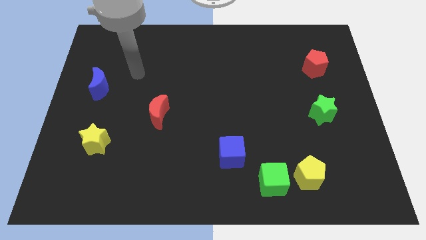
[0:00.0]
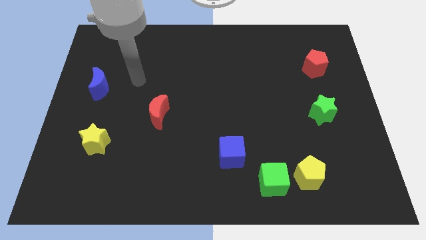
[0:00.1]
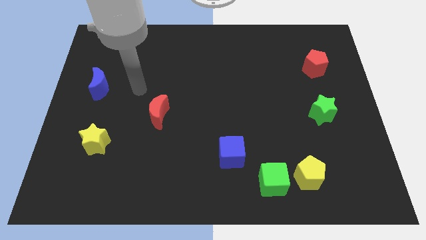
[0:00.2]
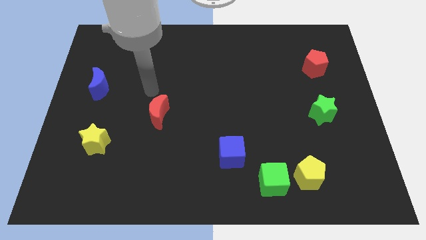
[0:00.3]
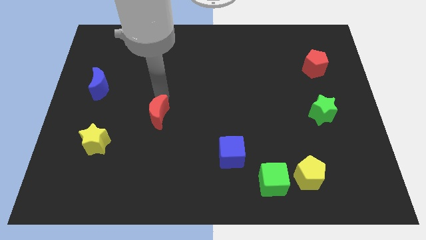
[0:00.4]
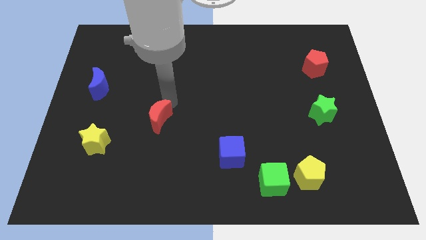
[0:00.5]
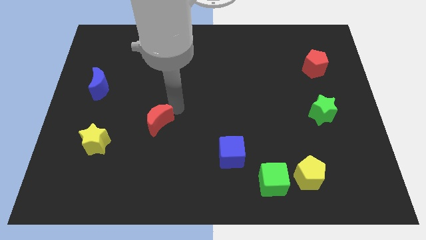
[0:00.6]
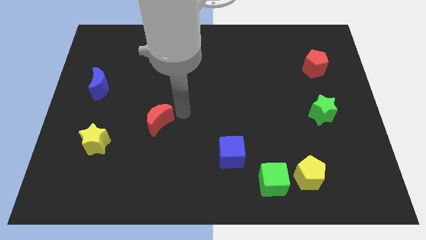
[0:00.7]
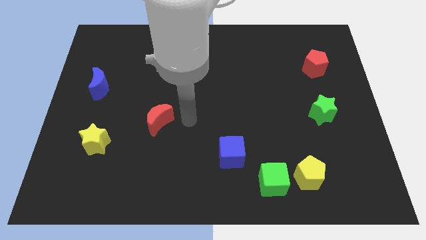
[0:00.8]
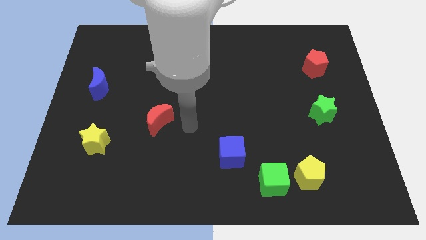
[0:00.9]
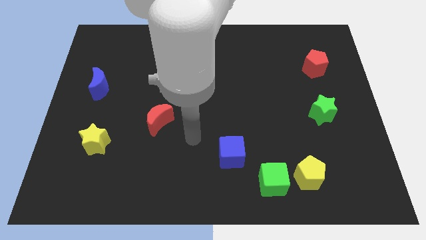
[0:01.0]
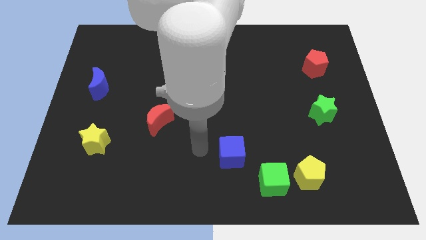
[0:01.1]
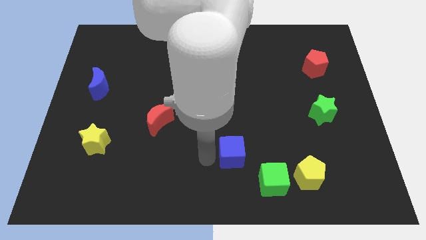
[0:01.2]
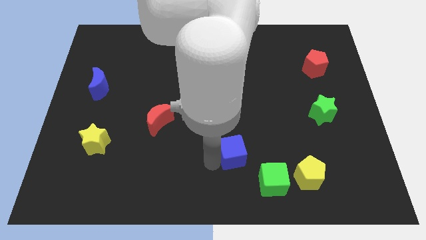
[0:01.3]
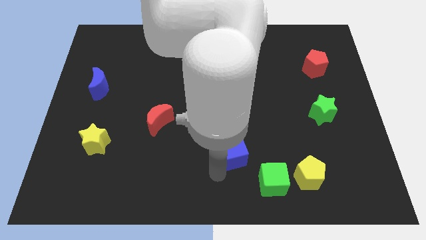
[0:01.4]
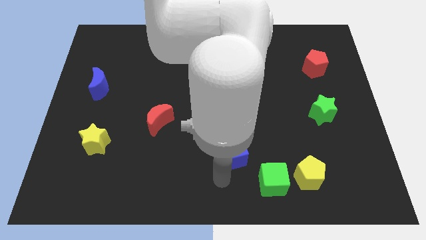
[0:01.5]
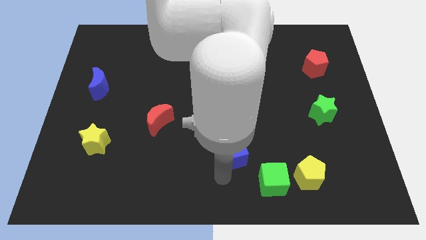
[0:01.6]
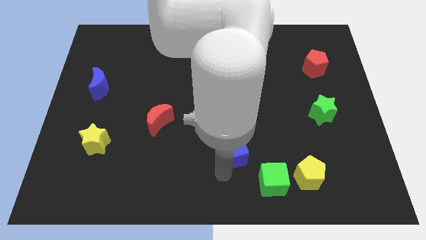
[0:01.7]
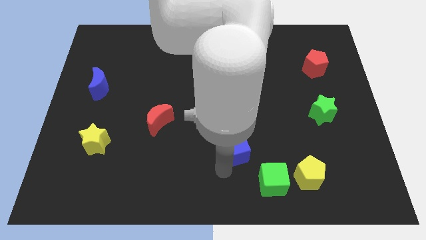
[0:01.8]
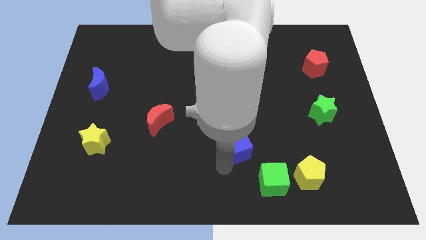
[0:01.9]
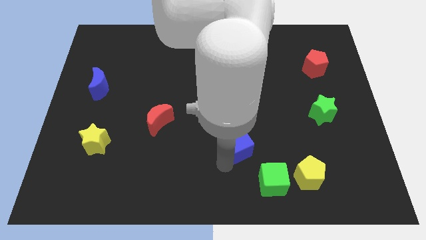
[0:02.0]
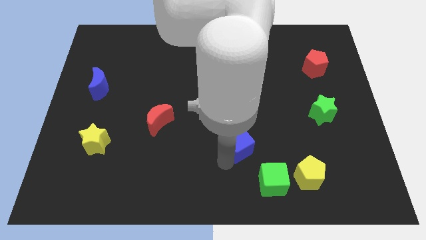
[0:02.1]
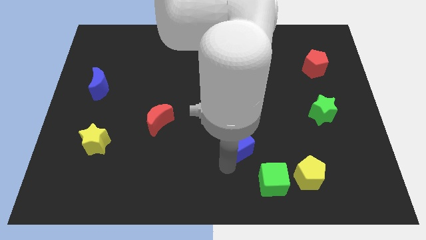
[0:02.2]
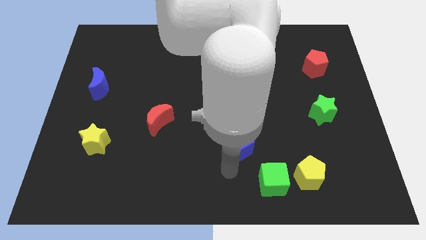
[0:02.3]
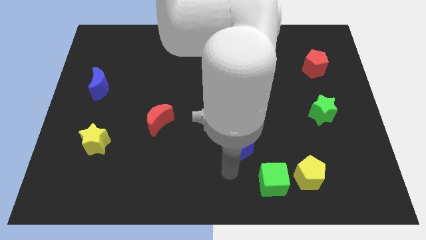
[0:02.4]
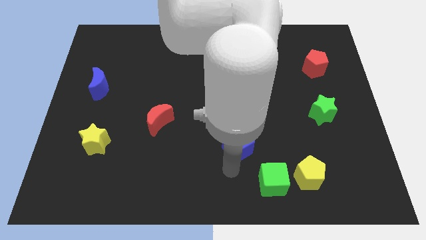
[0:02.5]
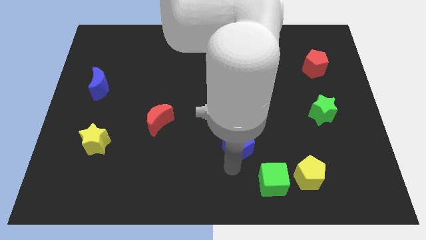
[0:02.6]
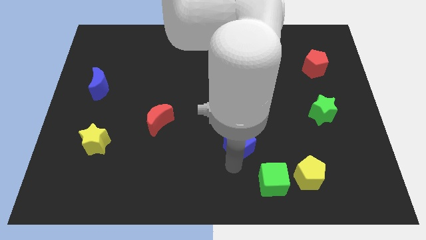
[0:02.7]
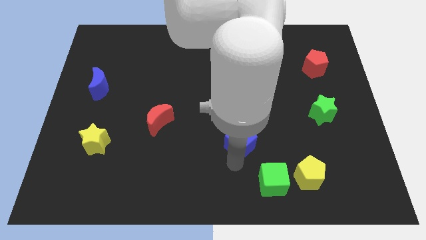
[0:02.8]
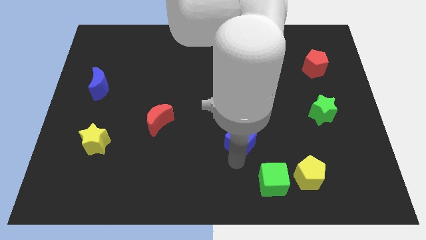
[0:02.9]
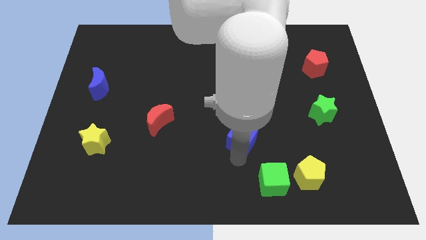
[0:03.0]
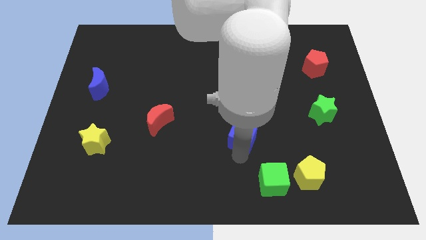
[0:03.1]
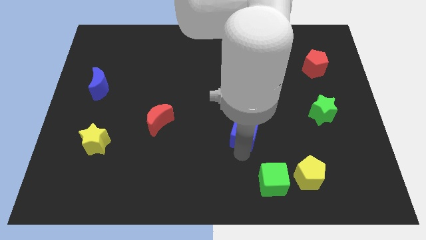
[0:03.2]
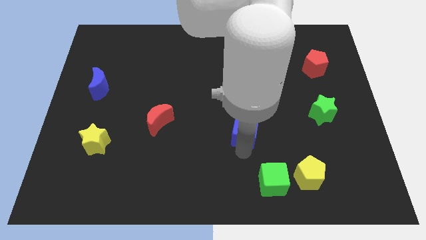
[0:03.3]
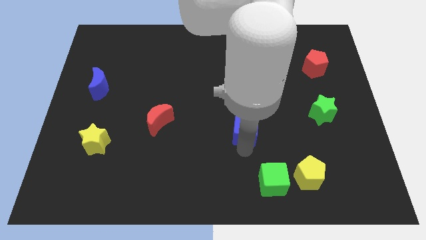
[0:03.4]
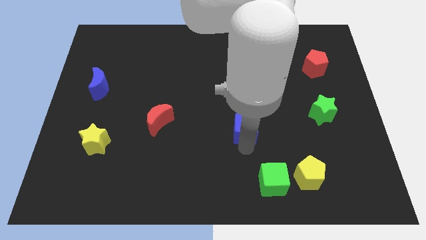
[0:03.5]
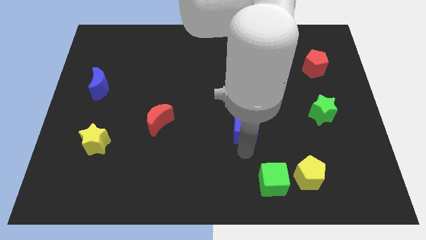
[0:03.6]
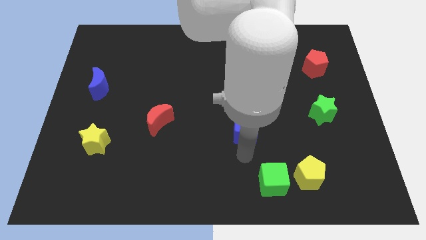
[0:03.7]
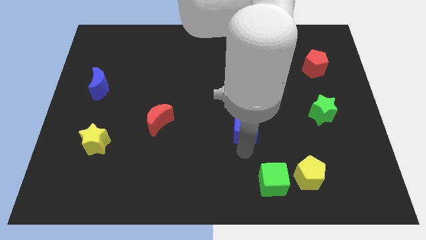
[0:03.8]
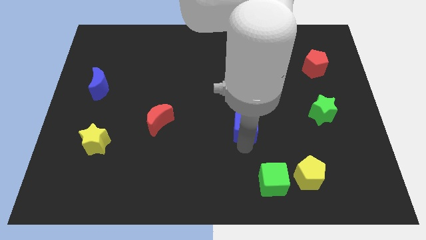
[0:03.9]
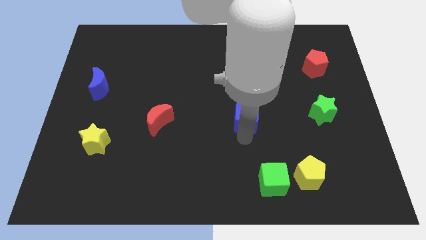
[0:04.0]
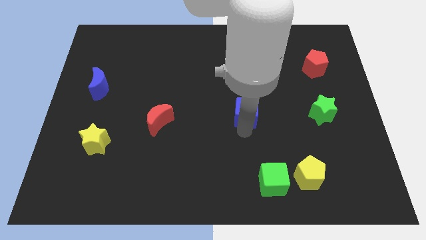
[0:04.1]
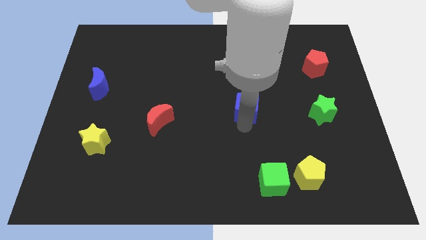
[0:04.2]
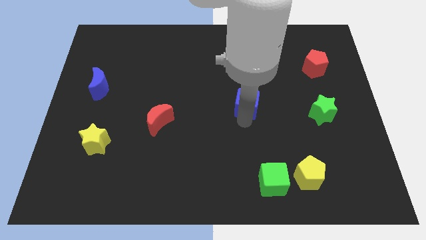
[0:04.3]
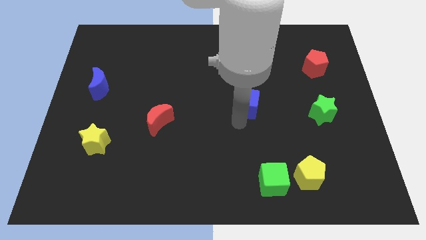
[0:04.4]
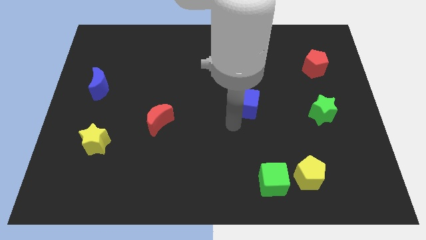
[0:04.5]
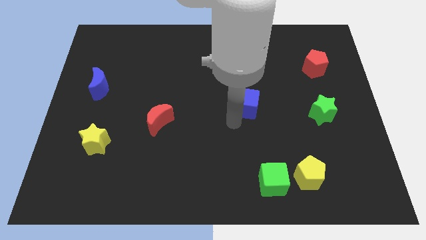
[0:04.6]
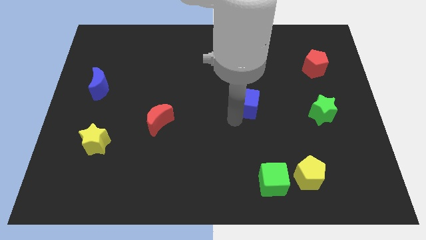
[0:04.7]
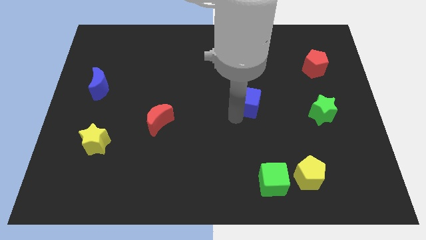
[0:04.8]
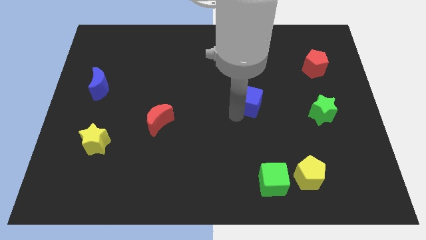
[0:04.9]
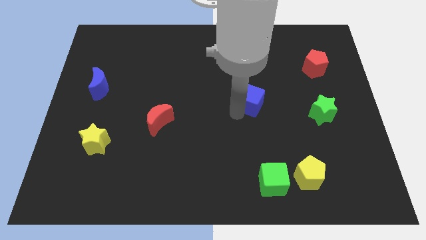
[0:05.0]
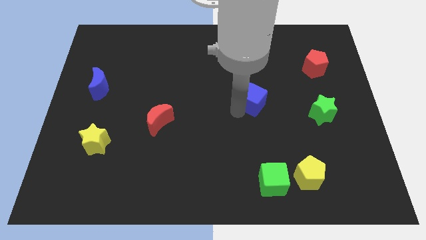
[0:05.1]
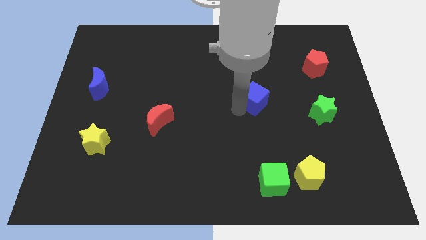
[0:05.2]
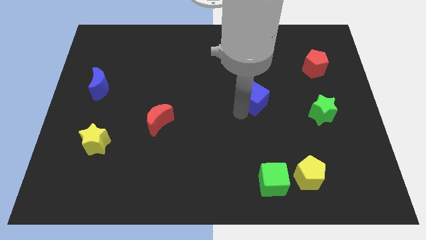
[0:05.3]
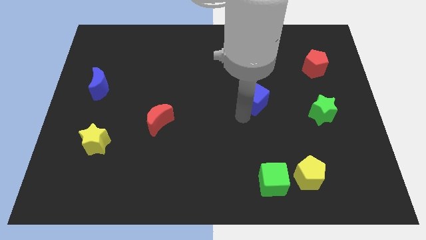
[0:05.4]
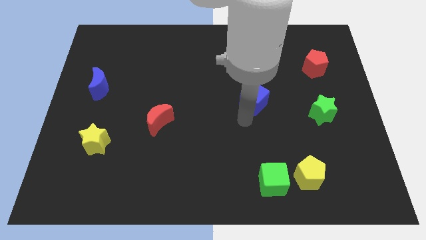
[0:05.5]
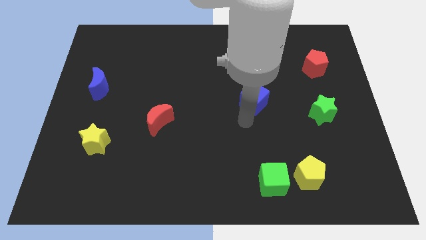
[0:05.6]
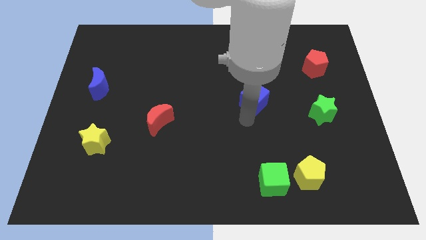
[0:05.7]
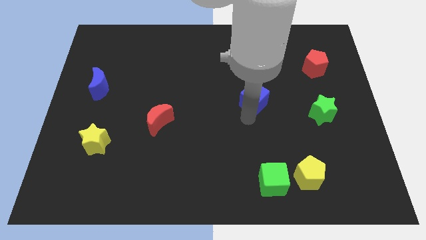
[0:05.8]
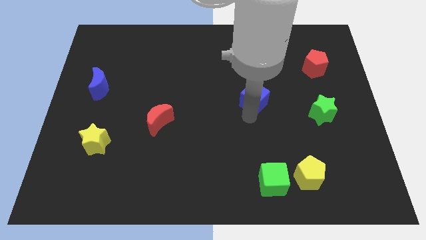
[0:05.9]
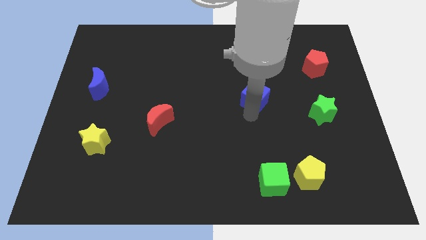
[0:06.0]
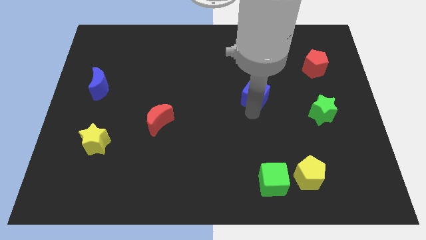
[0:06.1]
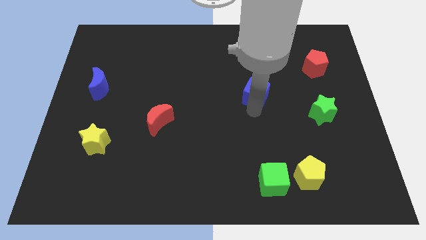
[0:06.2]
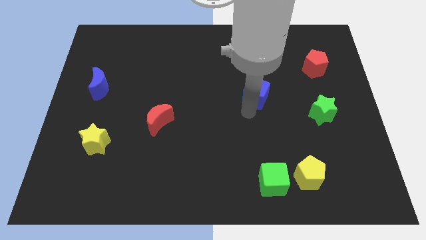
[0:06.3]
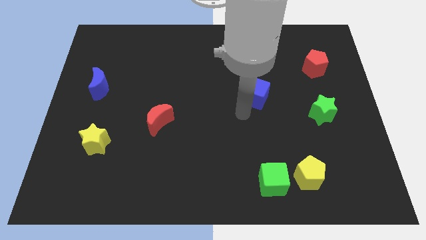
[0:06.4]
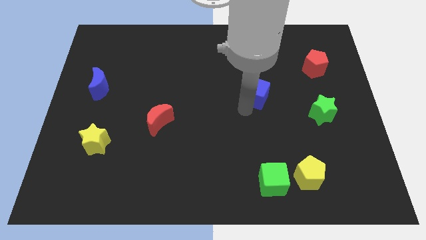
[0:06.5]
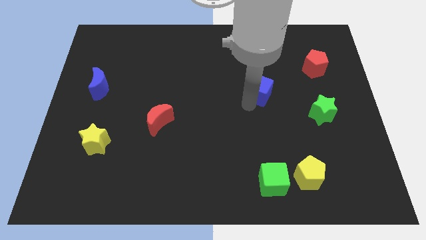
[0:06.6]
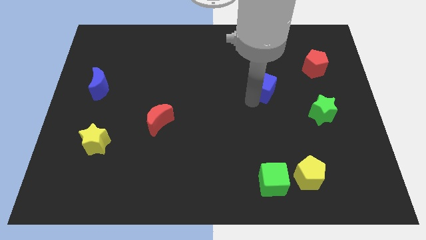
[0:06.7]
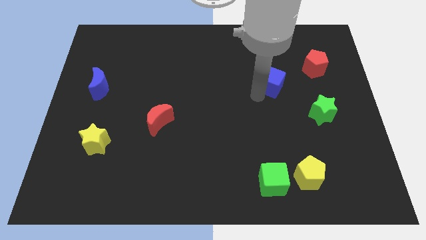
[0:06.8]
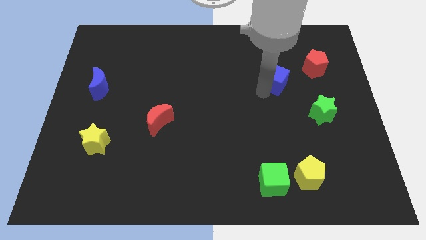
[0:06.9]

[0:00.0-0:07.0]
push the blue cube just left of the red pentagon

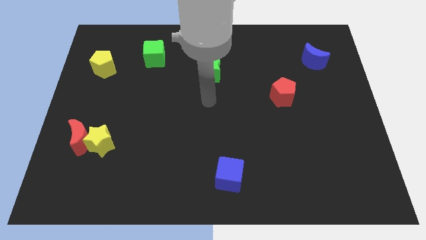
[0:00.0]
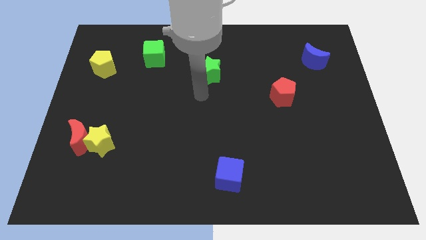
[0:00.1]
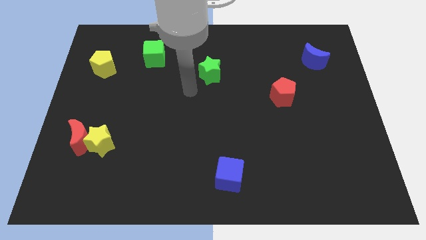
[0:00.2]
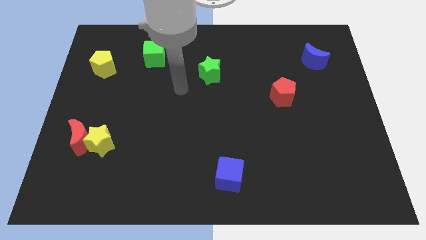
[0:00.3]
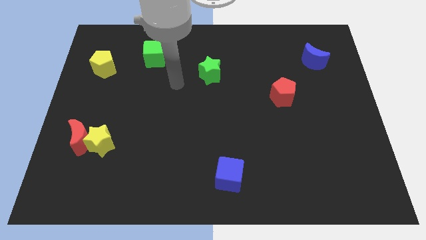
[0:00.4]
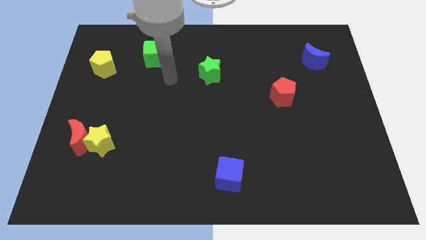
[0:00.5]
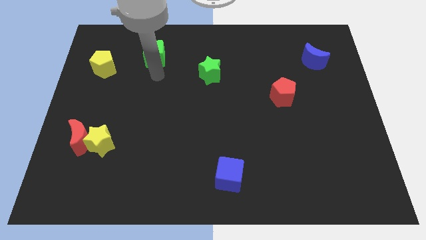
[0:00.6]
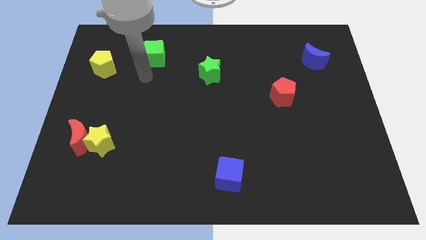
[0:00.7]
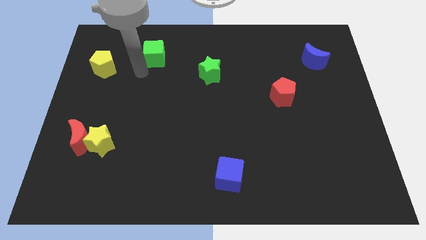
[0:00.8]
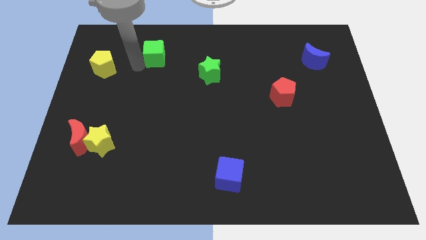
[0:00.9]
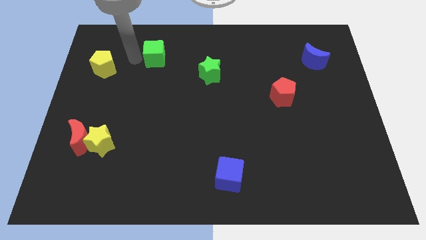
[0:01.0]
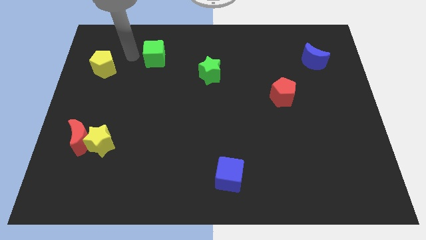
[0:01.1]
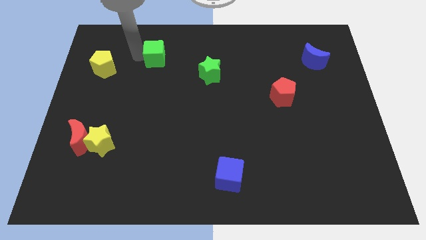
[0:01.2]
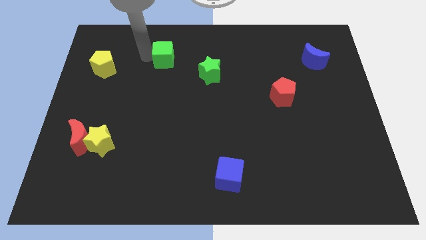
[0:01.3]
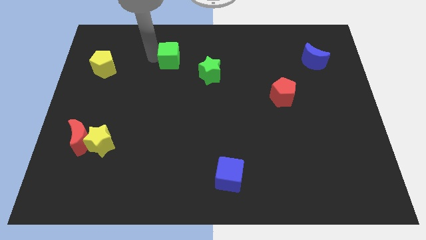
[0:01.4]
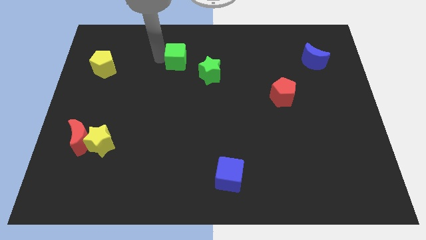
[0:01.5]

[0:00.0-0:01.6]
push the green cube to the top left of the green star
